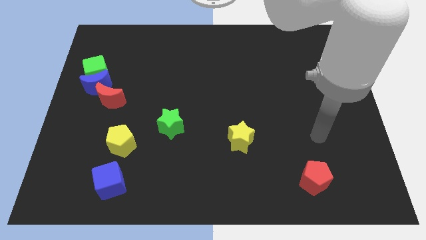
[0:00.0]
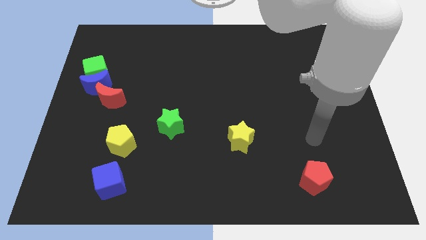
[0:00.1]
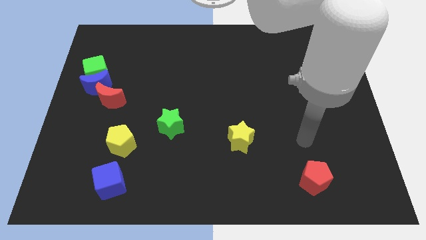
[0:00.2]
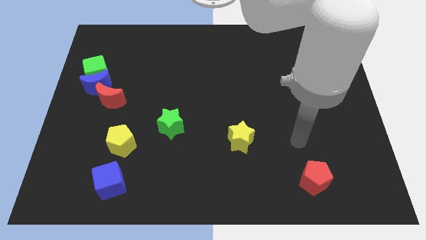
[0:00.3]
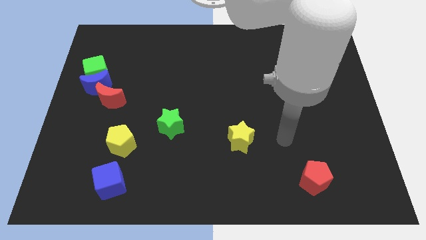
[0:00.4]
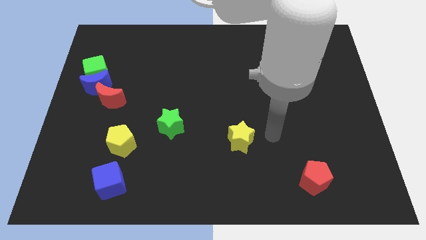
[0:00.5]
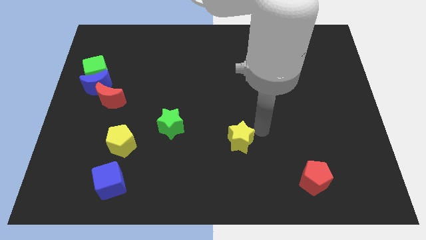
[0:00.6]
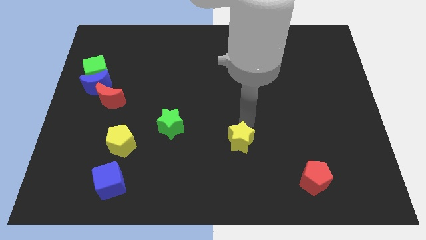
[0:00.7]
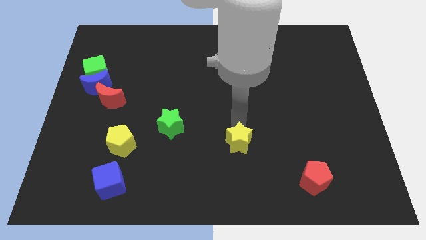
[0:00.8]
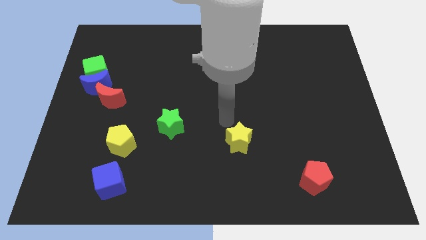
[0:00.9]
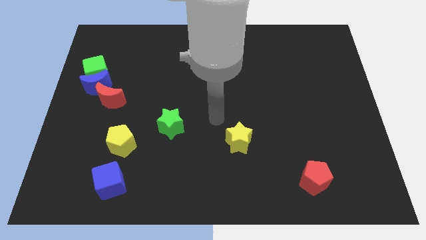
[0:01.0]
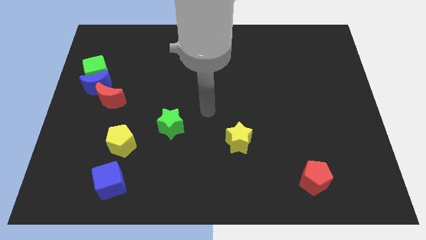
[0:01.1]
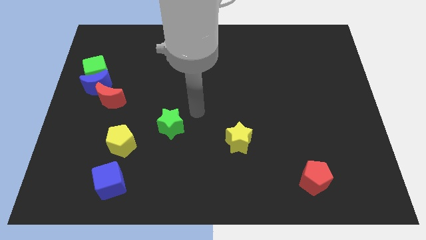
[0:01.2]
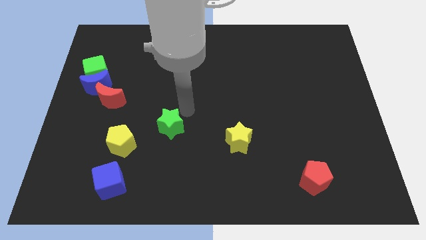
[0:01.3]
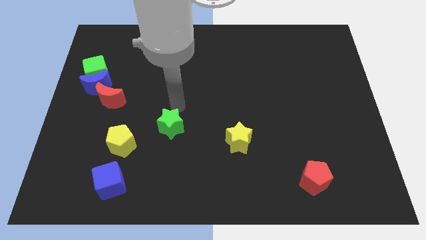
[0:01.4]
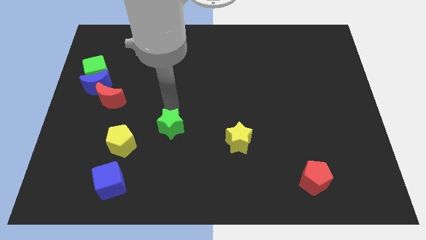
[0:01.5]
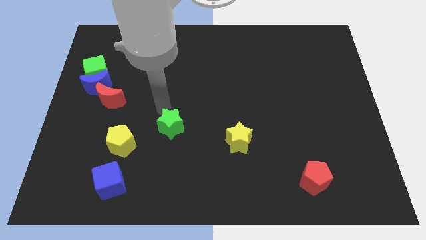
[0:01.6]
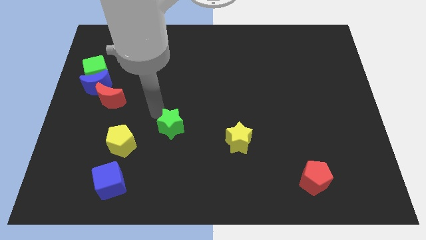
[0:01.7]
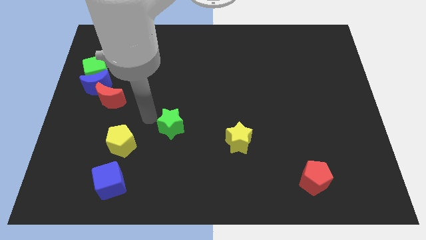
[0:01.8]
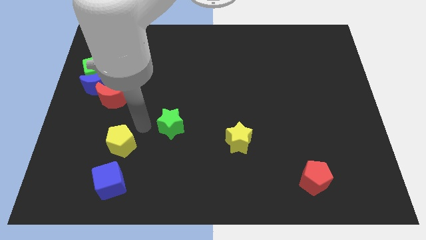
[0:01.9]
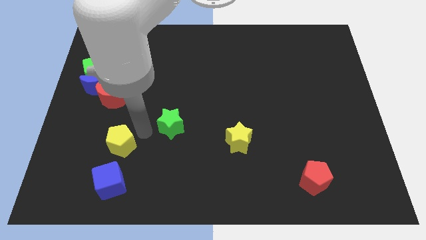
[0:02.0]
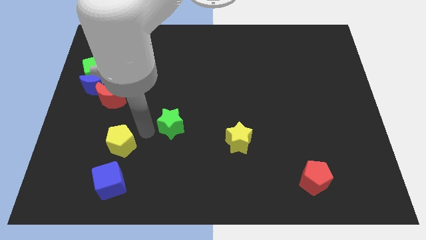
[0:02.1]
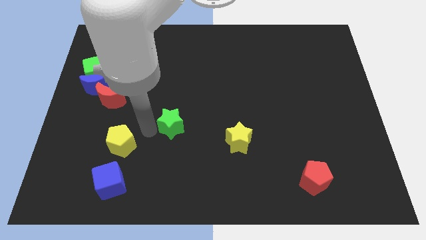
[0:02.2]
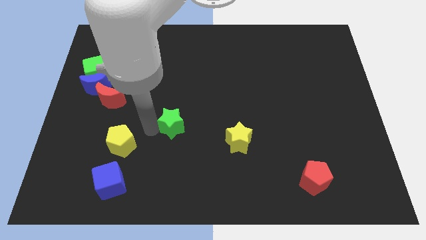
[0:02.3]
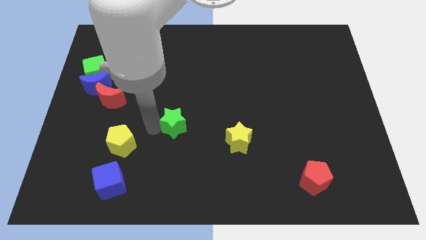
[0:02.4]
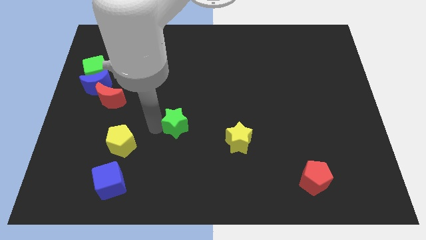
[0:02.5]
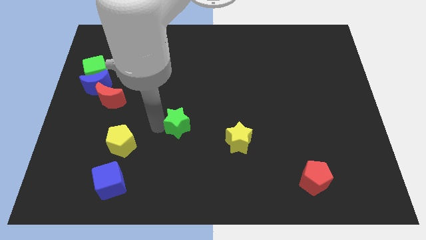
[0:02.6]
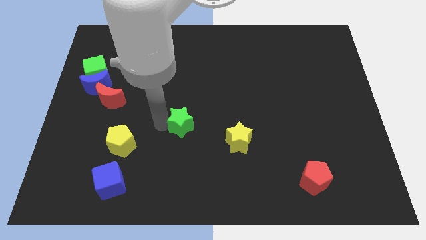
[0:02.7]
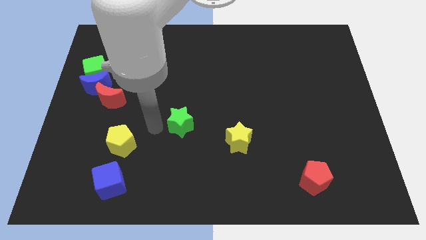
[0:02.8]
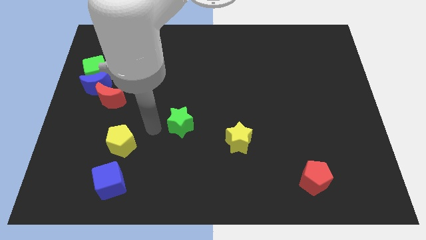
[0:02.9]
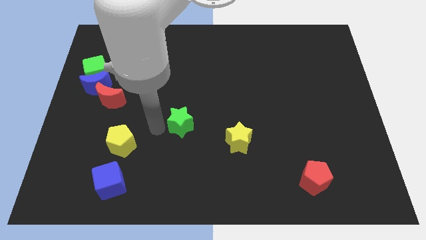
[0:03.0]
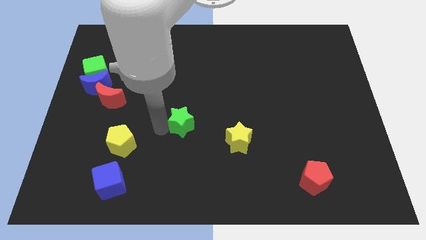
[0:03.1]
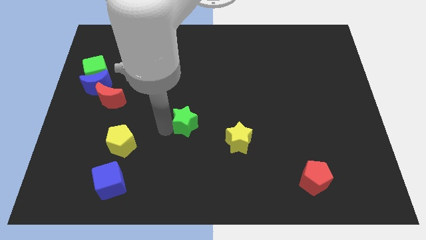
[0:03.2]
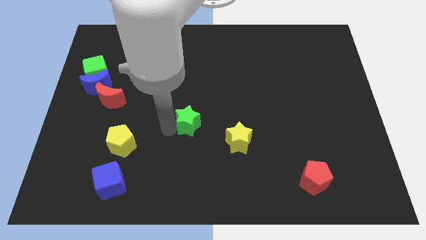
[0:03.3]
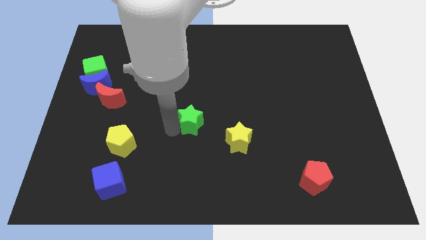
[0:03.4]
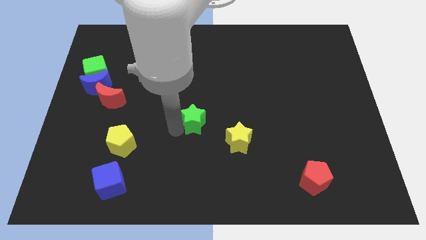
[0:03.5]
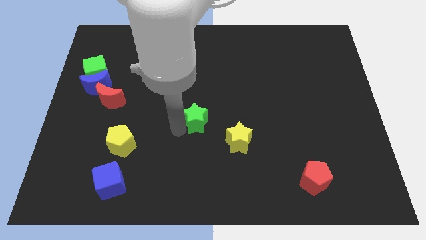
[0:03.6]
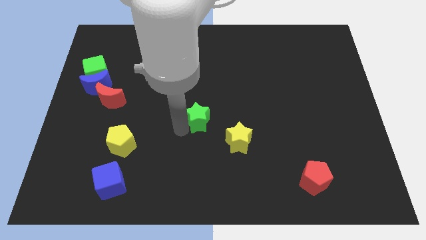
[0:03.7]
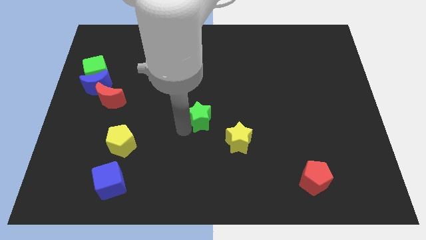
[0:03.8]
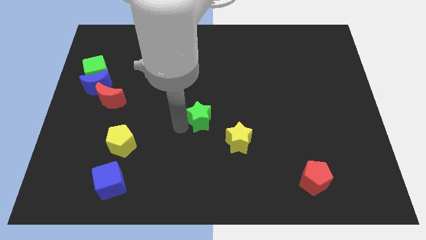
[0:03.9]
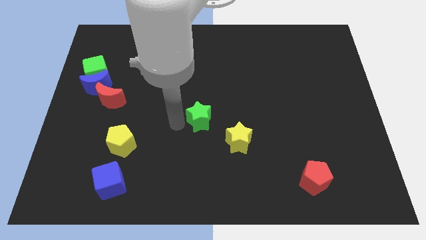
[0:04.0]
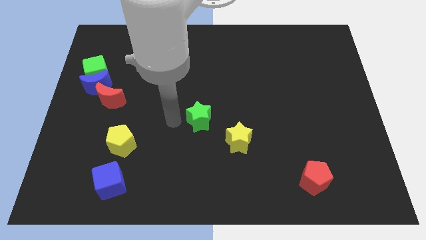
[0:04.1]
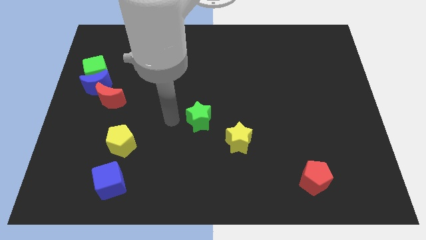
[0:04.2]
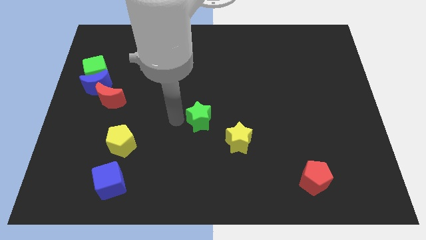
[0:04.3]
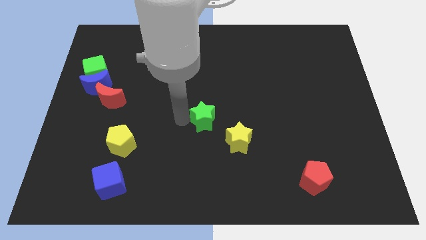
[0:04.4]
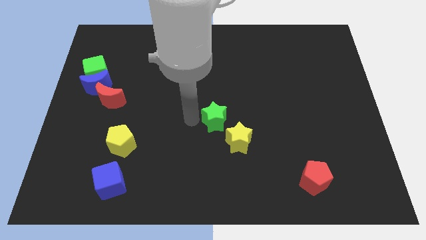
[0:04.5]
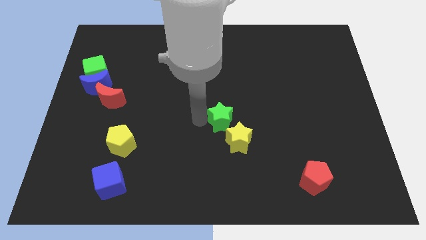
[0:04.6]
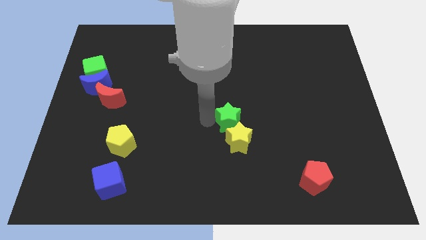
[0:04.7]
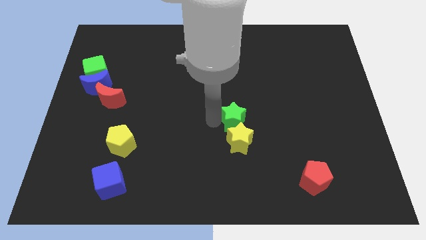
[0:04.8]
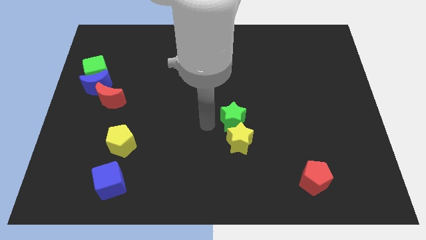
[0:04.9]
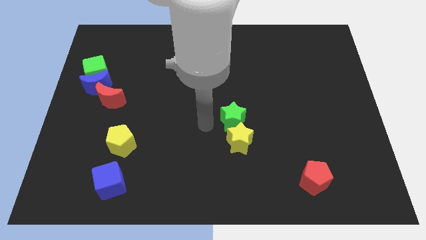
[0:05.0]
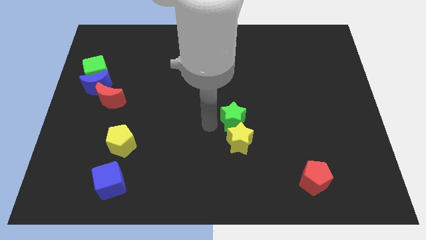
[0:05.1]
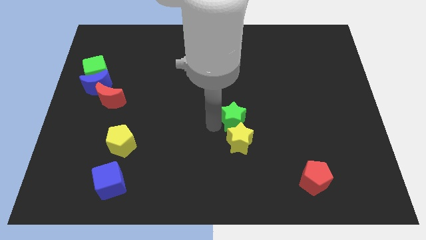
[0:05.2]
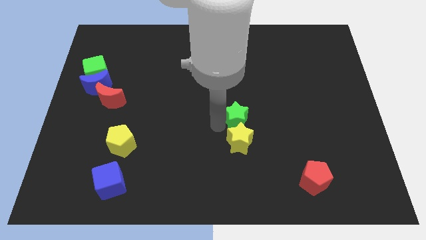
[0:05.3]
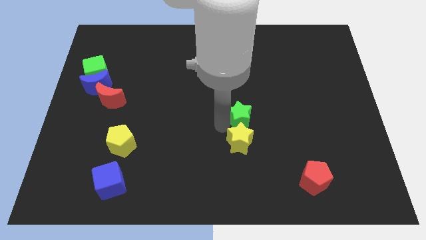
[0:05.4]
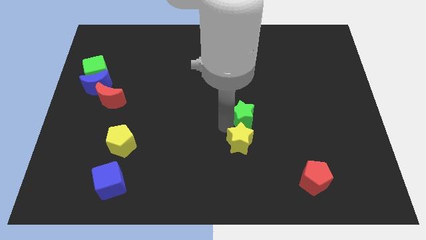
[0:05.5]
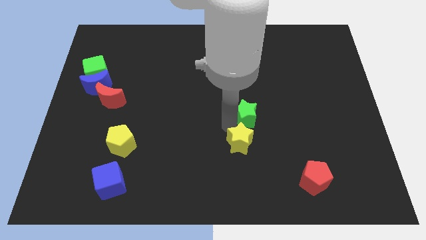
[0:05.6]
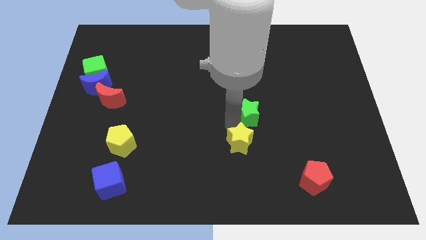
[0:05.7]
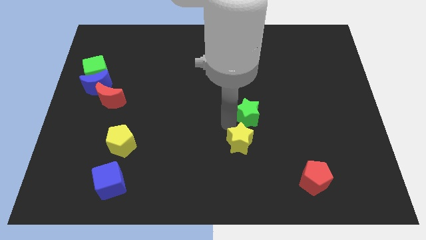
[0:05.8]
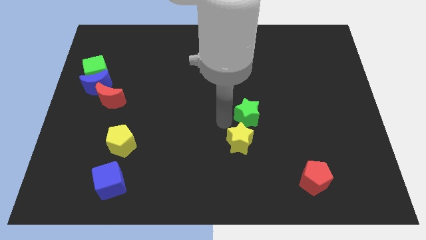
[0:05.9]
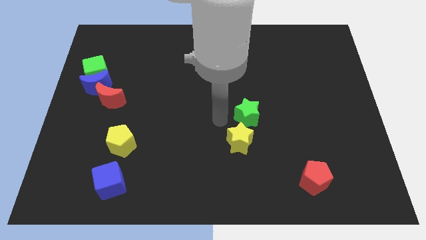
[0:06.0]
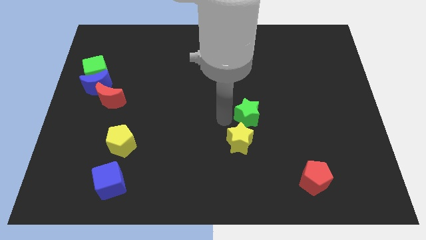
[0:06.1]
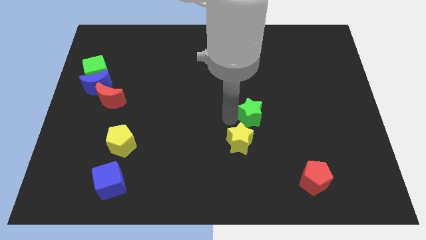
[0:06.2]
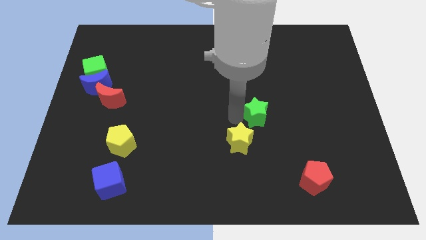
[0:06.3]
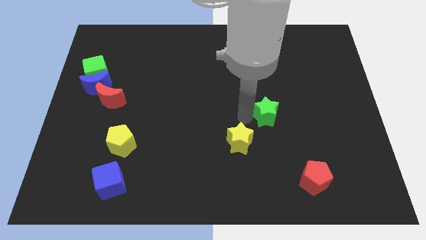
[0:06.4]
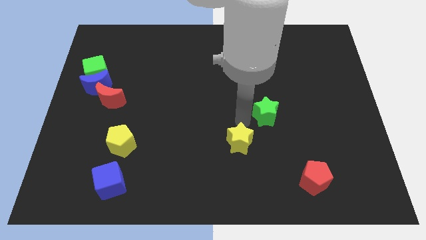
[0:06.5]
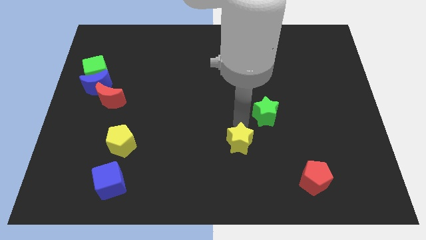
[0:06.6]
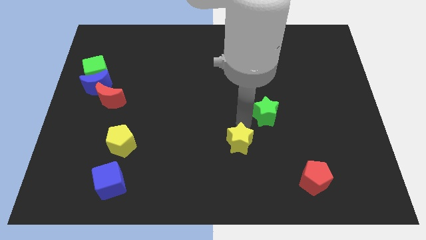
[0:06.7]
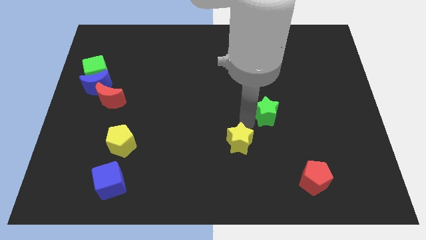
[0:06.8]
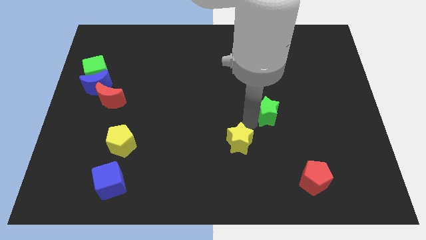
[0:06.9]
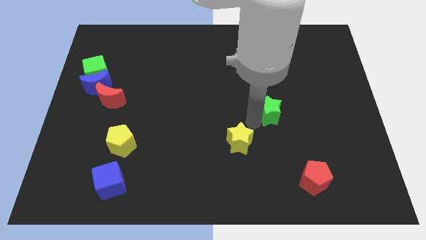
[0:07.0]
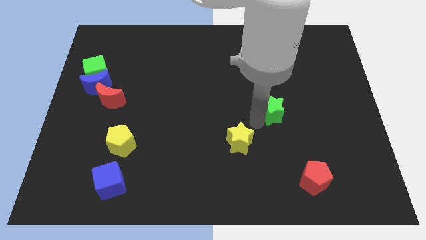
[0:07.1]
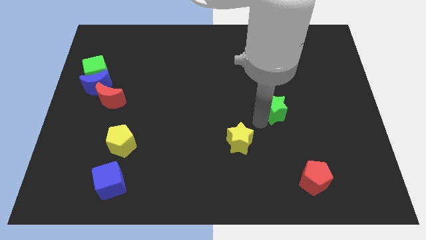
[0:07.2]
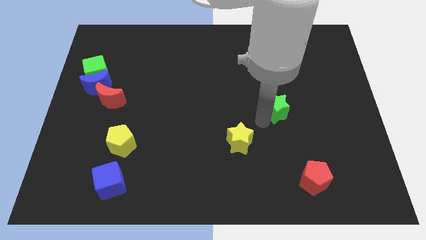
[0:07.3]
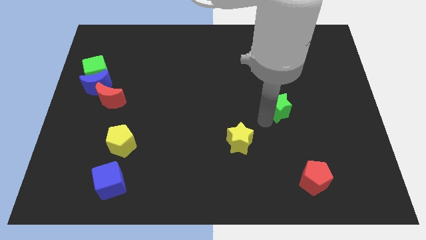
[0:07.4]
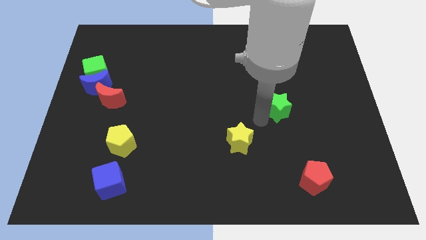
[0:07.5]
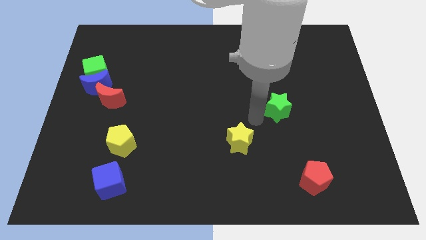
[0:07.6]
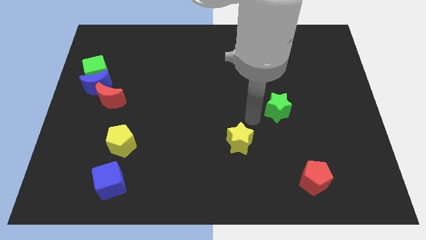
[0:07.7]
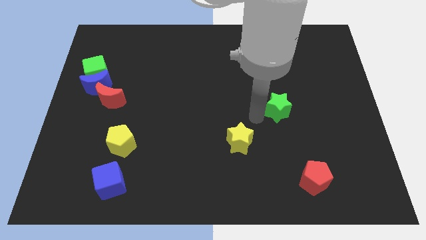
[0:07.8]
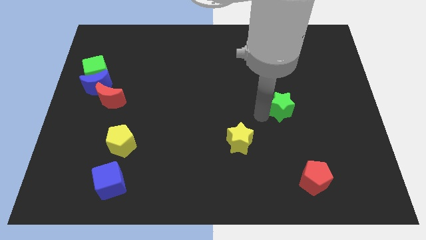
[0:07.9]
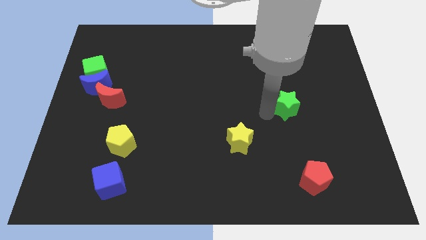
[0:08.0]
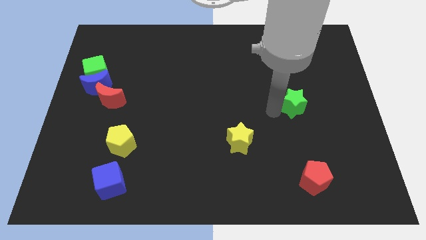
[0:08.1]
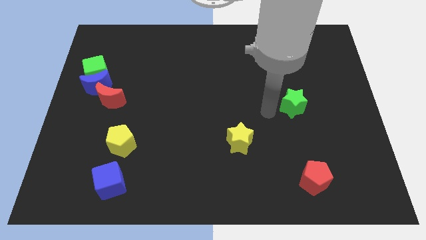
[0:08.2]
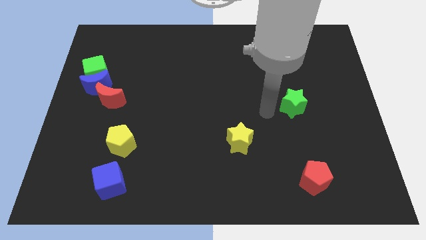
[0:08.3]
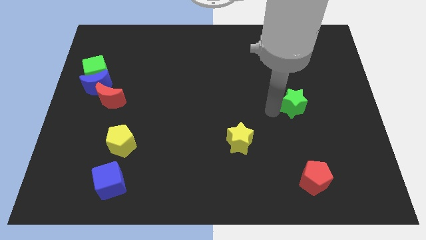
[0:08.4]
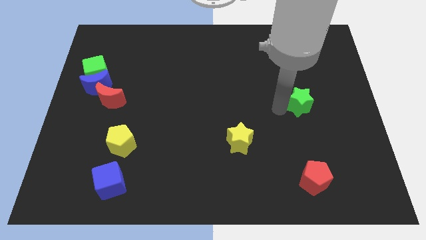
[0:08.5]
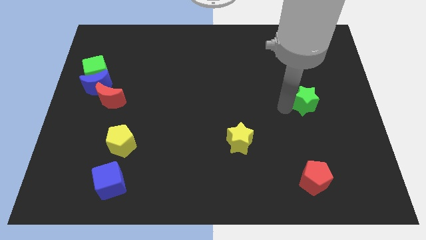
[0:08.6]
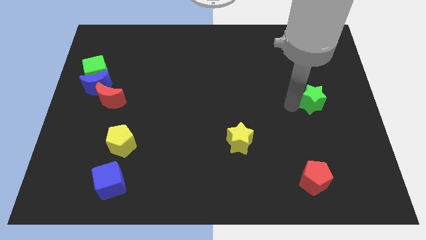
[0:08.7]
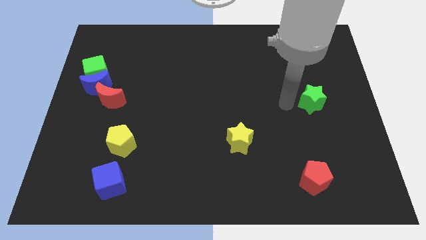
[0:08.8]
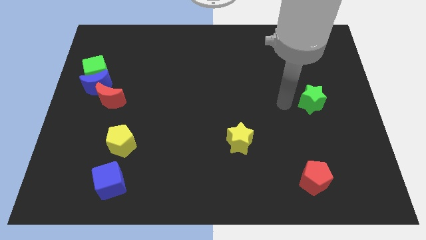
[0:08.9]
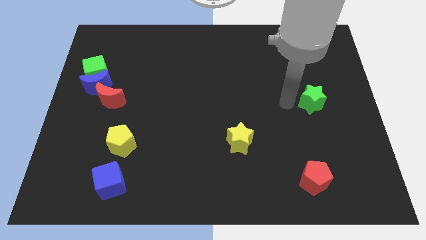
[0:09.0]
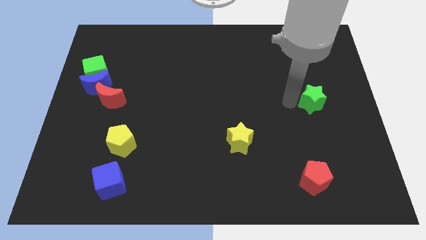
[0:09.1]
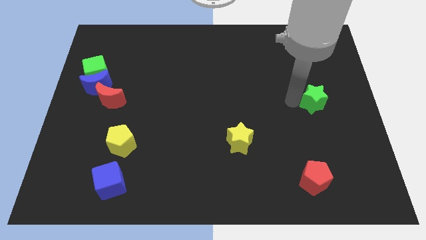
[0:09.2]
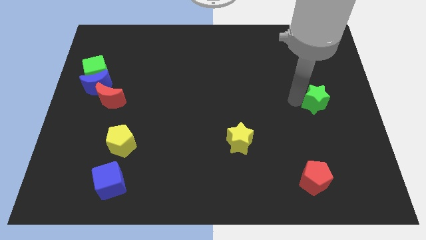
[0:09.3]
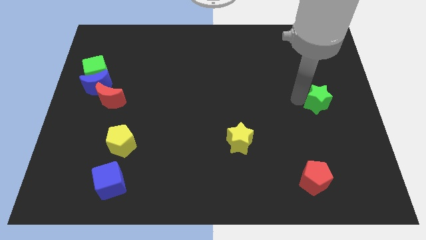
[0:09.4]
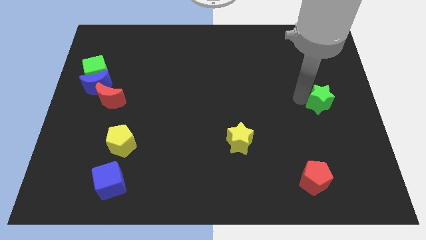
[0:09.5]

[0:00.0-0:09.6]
move the green star to the center right
